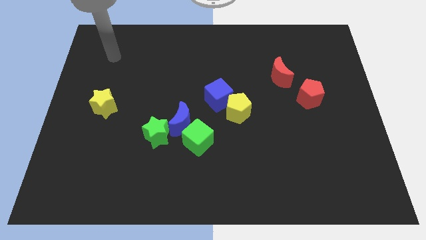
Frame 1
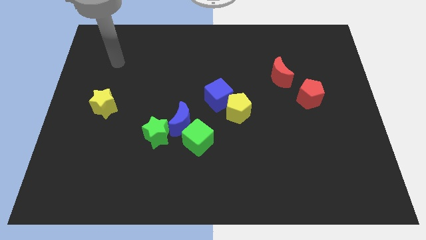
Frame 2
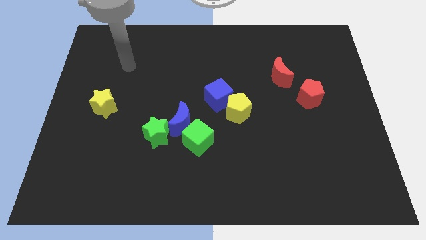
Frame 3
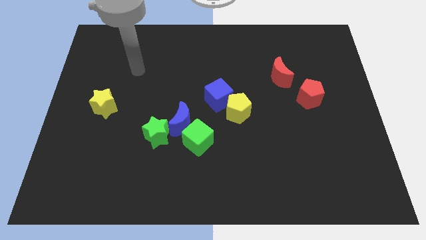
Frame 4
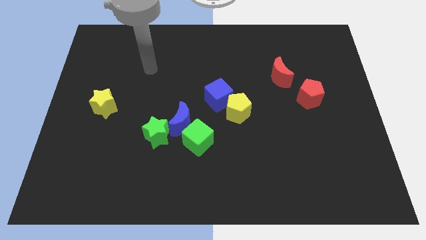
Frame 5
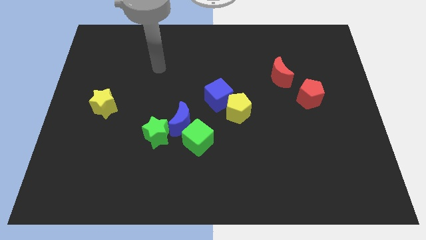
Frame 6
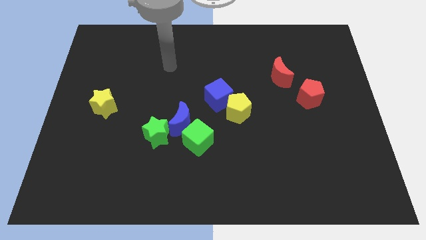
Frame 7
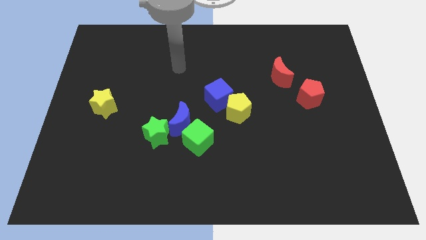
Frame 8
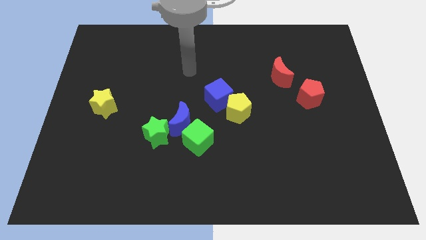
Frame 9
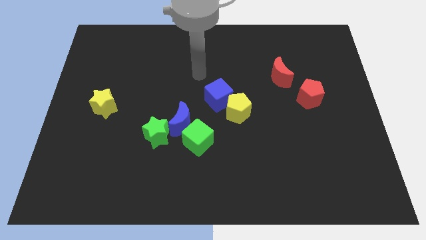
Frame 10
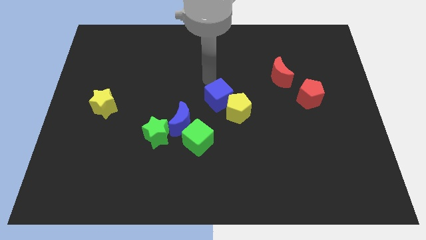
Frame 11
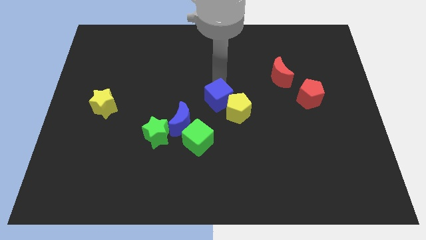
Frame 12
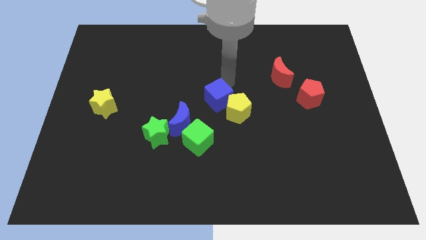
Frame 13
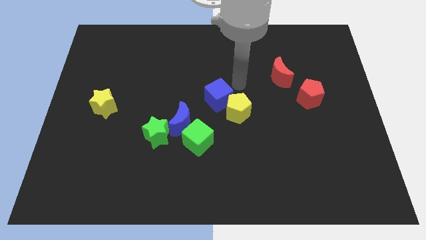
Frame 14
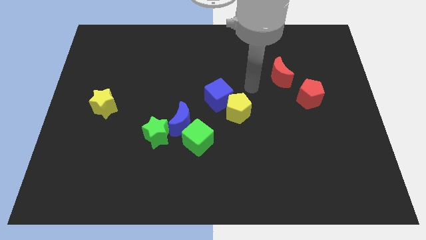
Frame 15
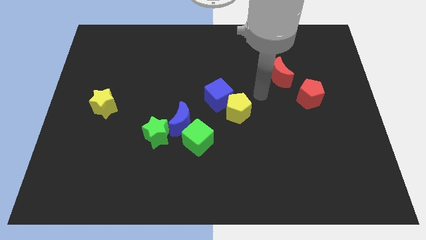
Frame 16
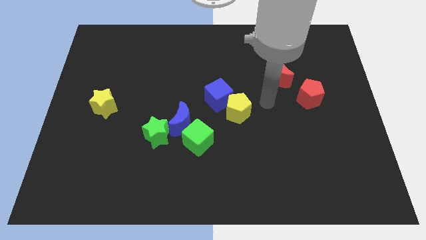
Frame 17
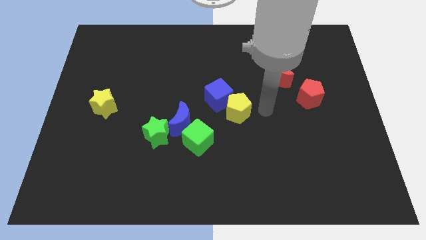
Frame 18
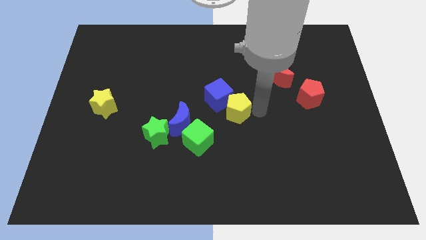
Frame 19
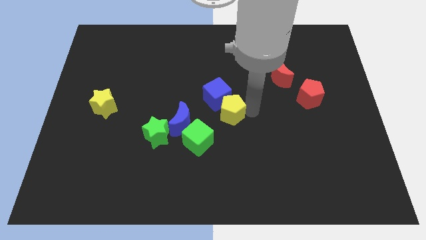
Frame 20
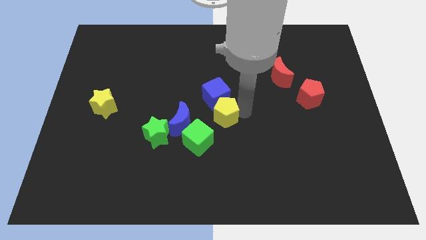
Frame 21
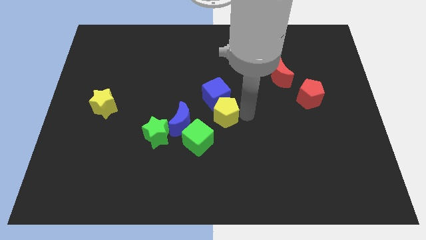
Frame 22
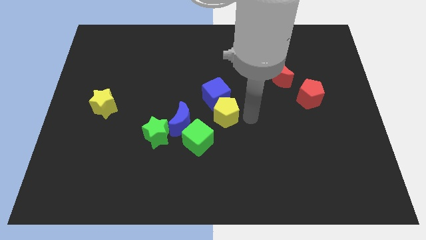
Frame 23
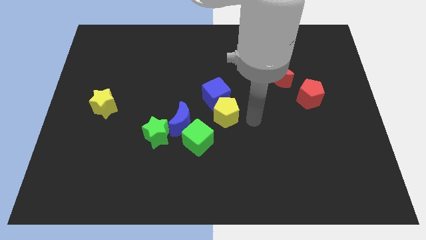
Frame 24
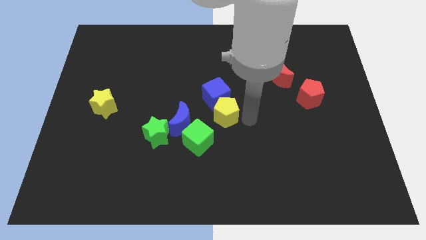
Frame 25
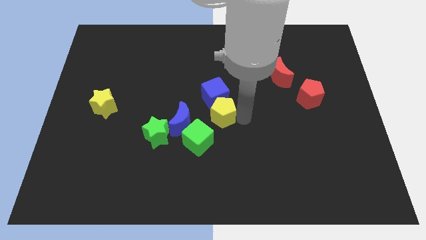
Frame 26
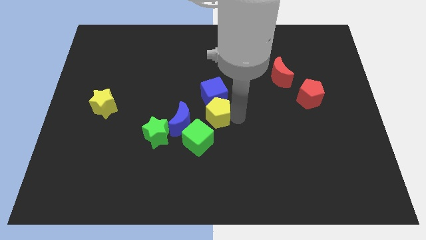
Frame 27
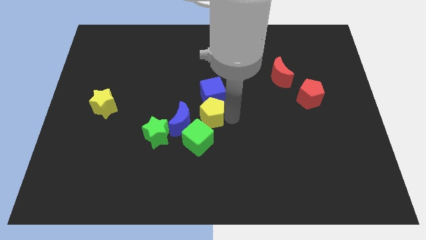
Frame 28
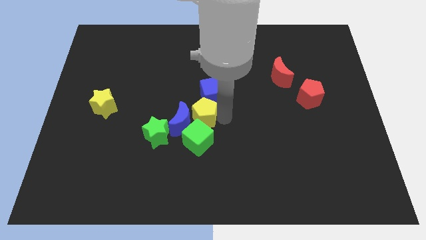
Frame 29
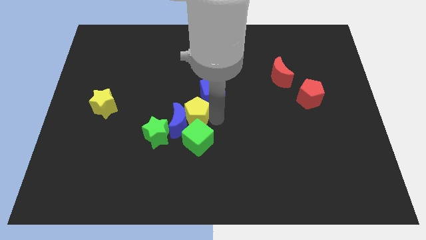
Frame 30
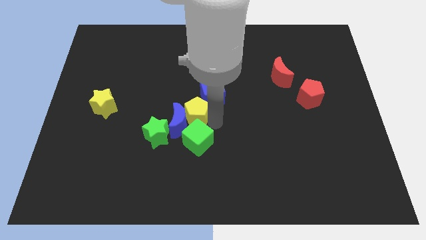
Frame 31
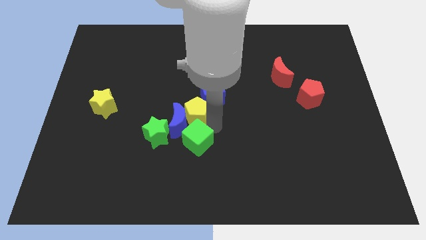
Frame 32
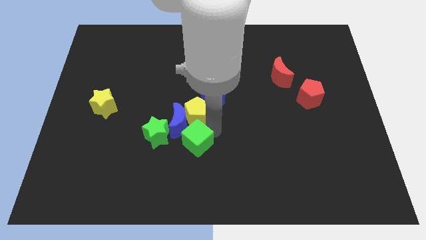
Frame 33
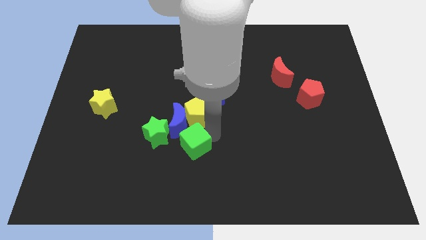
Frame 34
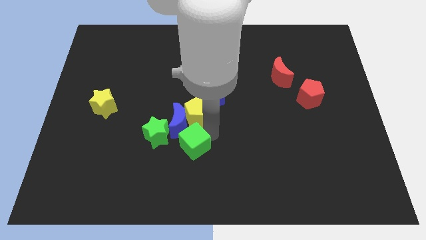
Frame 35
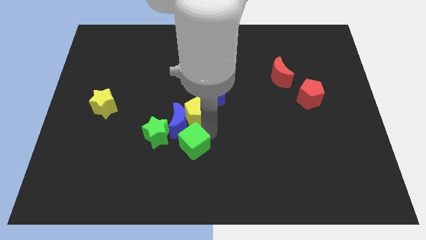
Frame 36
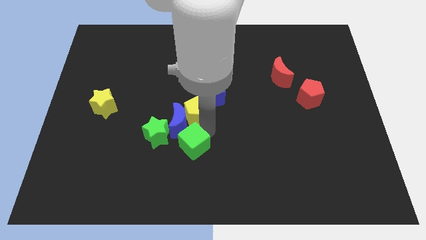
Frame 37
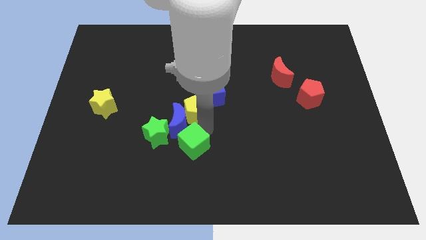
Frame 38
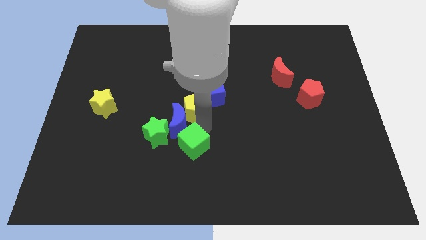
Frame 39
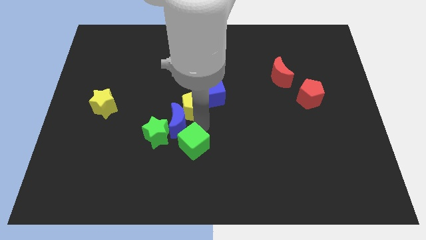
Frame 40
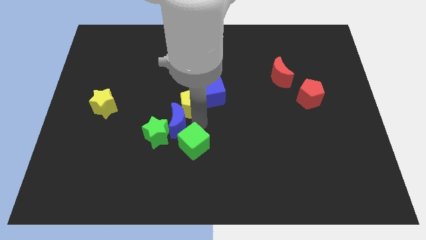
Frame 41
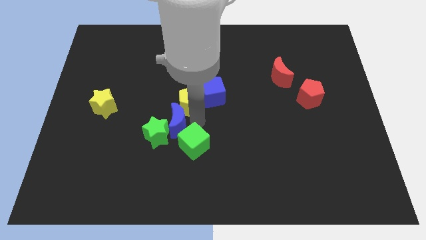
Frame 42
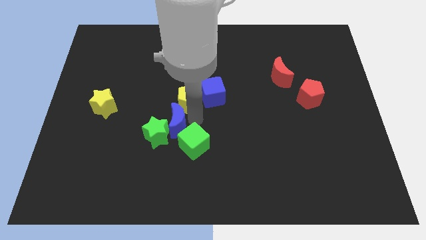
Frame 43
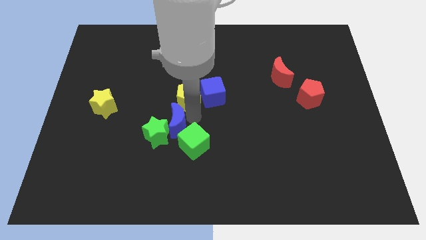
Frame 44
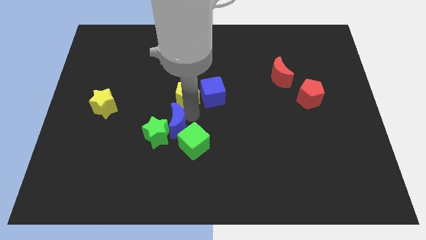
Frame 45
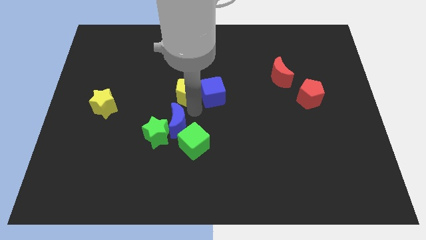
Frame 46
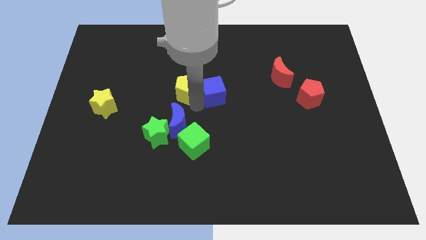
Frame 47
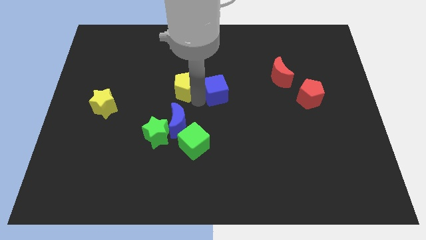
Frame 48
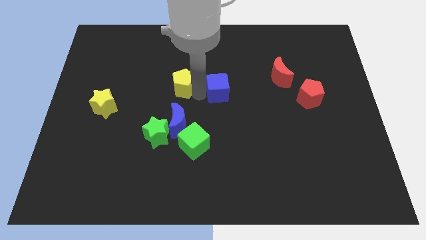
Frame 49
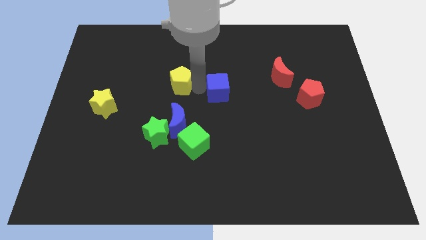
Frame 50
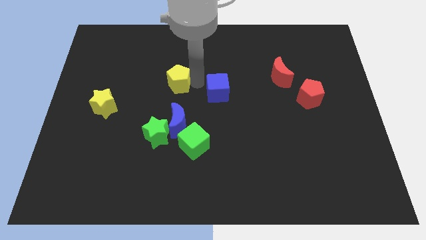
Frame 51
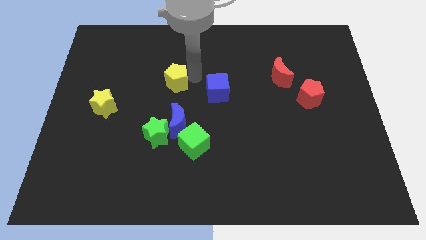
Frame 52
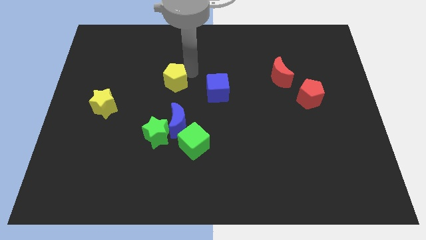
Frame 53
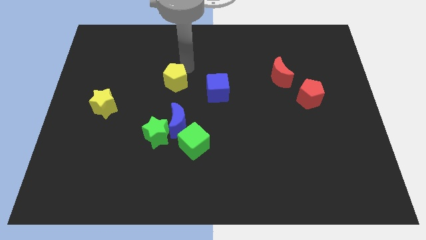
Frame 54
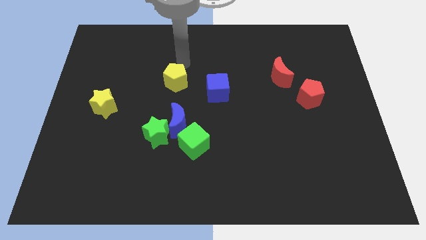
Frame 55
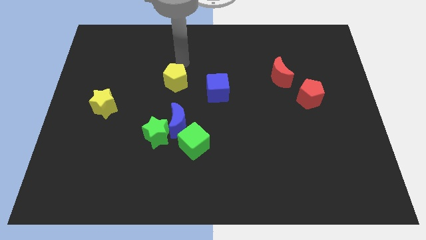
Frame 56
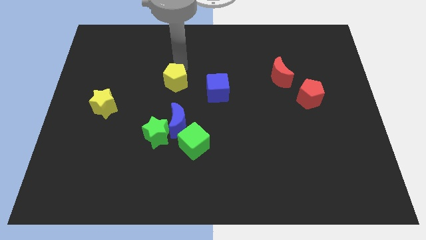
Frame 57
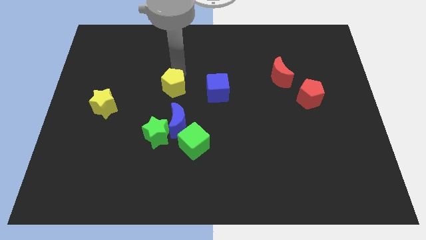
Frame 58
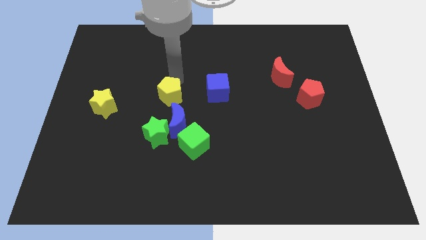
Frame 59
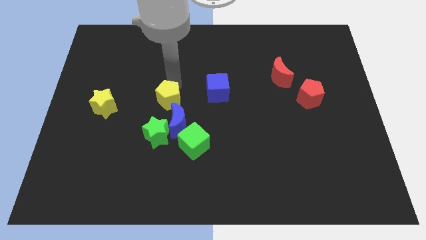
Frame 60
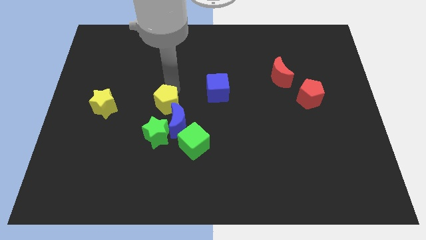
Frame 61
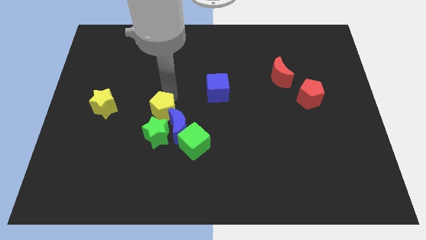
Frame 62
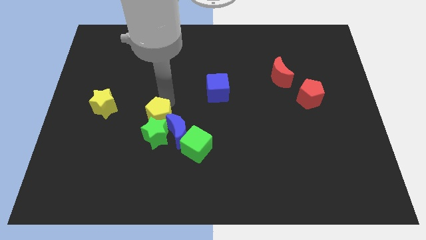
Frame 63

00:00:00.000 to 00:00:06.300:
push the yellow pentagon to the green star
